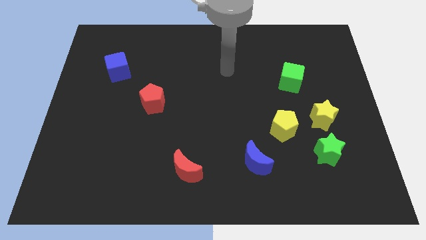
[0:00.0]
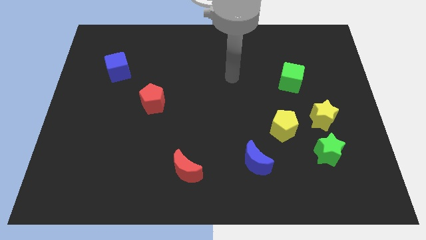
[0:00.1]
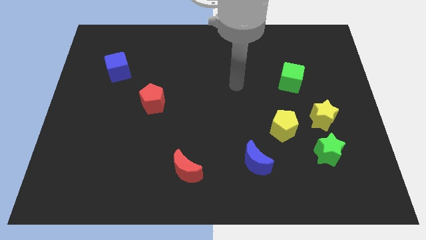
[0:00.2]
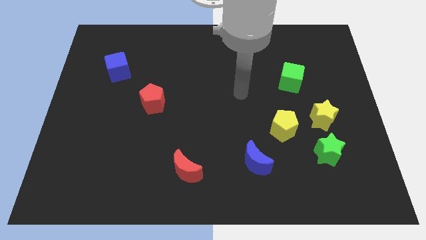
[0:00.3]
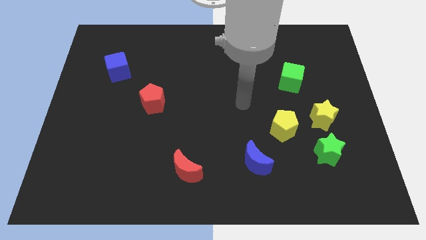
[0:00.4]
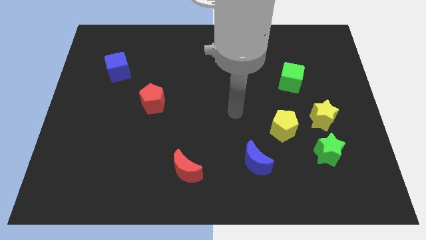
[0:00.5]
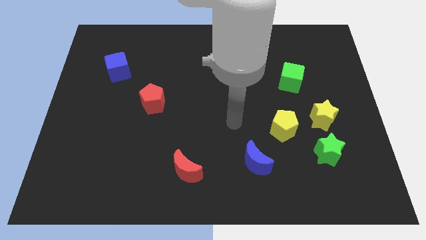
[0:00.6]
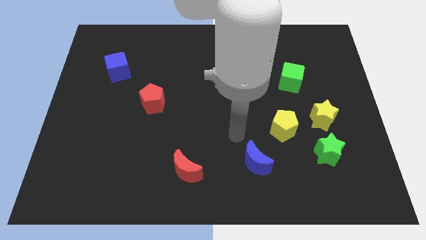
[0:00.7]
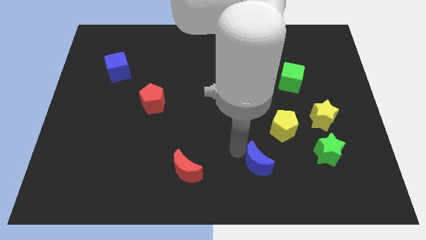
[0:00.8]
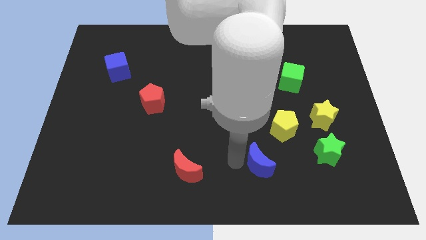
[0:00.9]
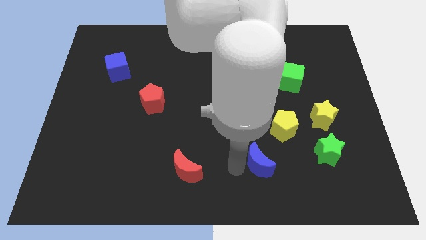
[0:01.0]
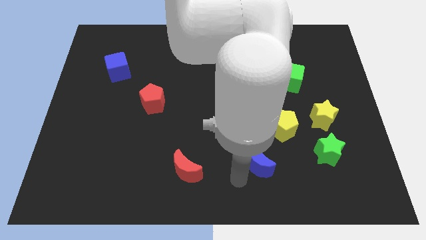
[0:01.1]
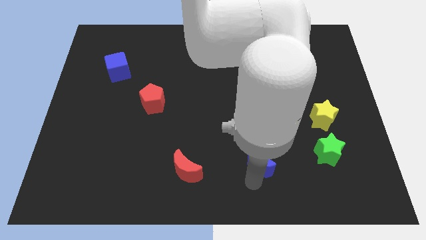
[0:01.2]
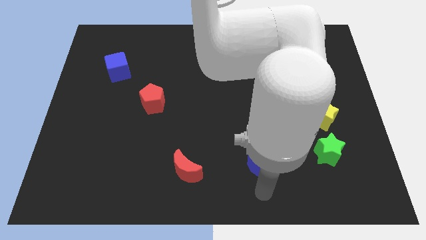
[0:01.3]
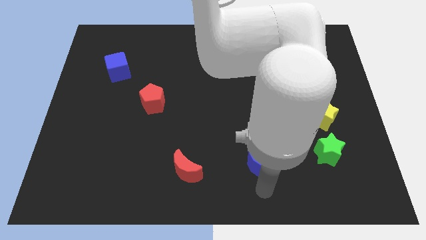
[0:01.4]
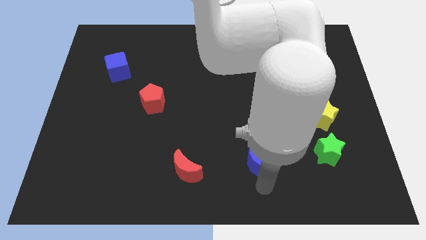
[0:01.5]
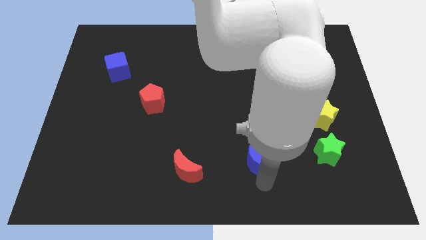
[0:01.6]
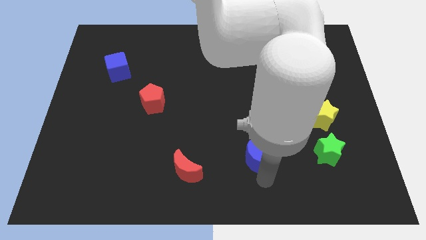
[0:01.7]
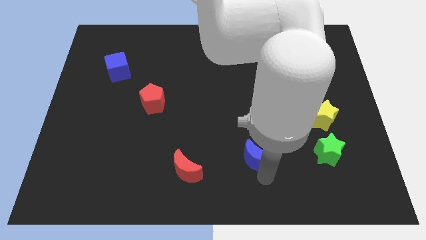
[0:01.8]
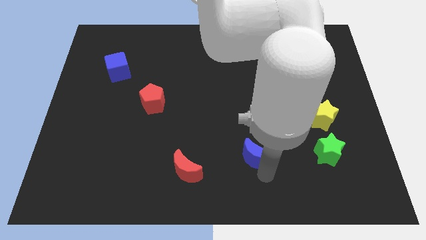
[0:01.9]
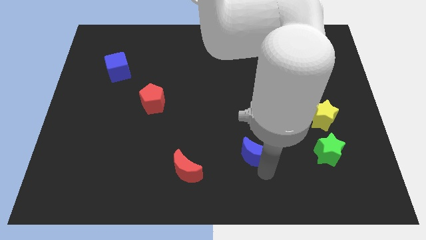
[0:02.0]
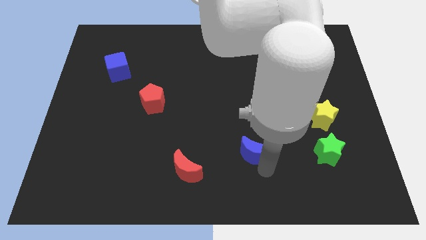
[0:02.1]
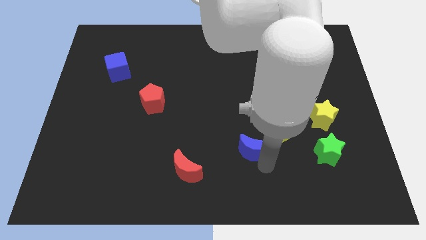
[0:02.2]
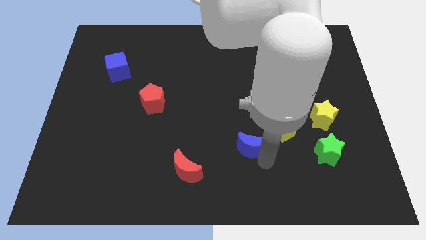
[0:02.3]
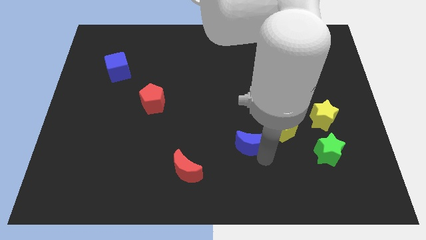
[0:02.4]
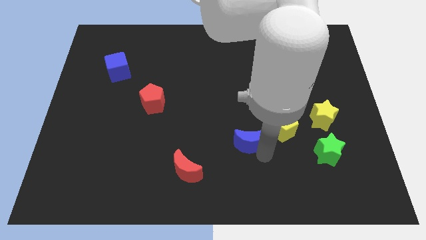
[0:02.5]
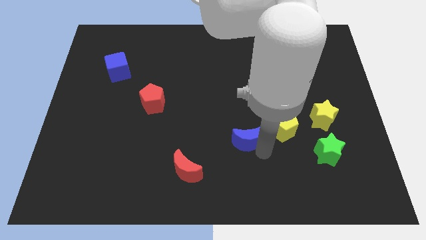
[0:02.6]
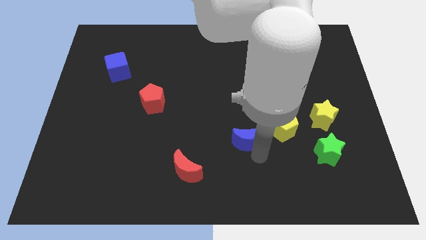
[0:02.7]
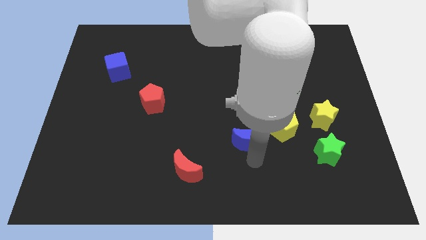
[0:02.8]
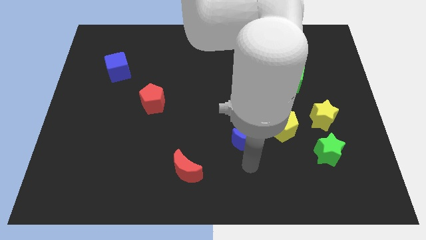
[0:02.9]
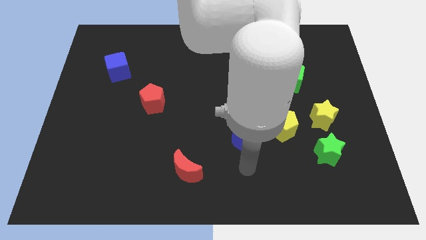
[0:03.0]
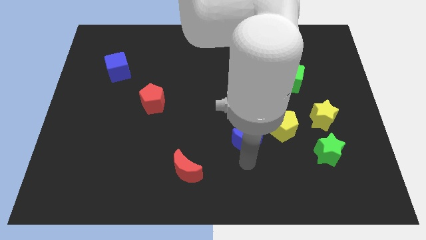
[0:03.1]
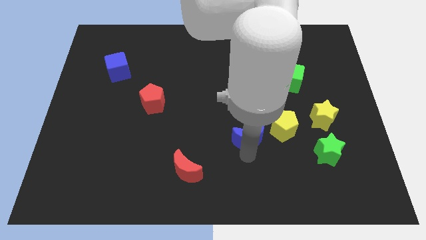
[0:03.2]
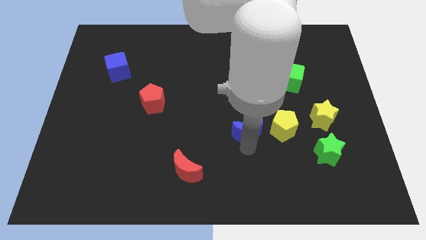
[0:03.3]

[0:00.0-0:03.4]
move the blue moon a bit upwards

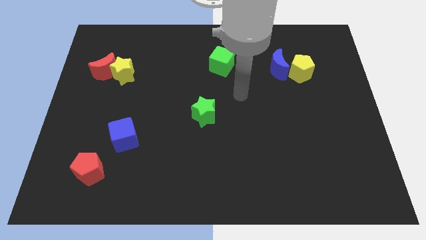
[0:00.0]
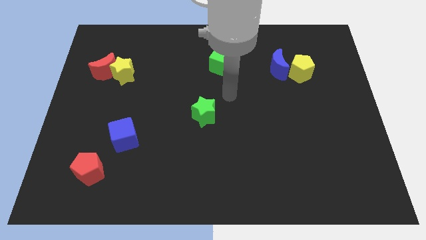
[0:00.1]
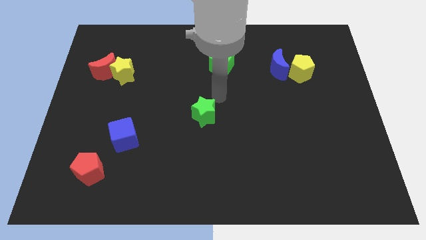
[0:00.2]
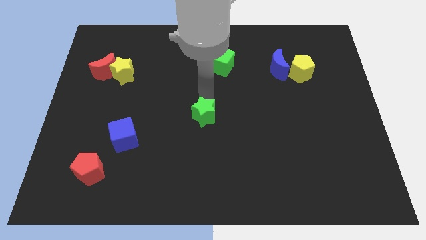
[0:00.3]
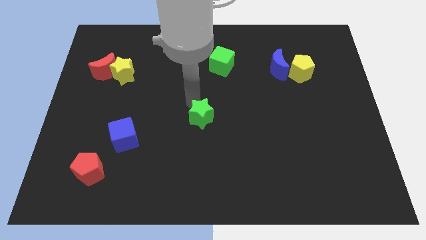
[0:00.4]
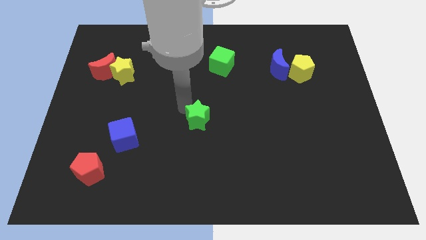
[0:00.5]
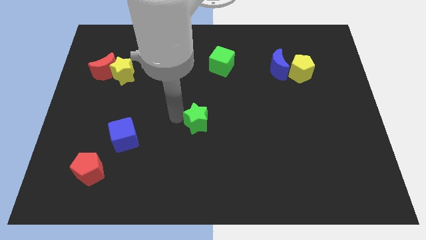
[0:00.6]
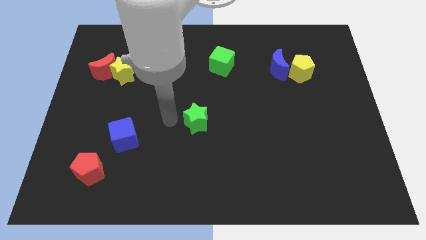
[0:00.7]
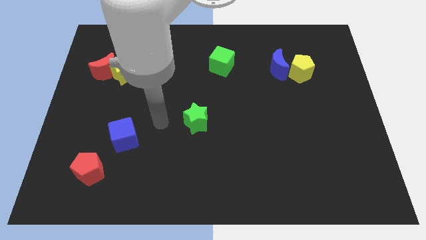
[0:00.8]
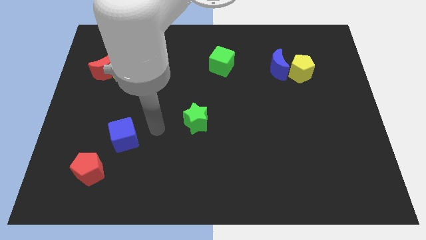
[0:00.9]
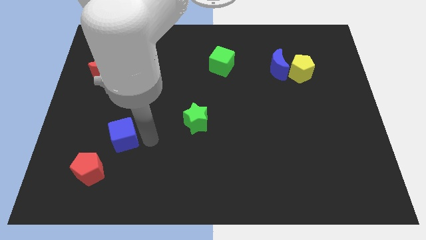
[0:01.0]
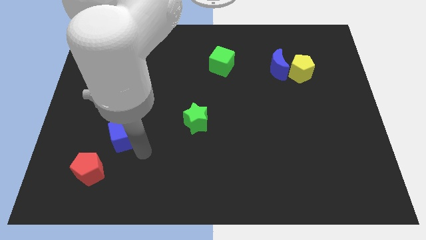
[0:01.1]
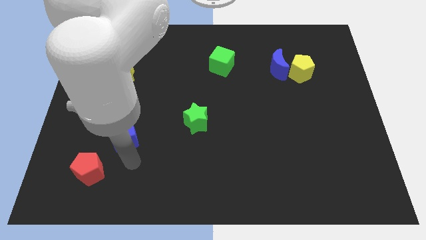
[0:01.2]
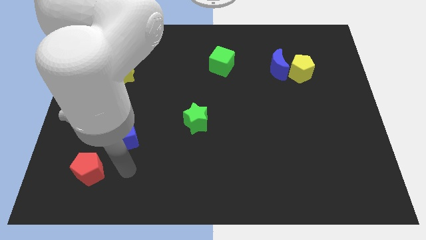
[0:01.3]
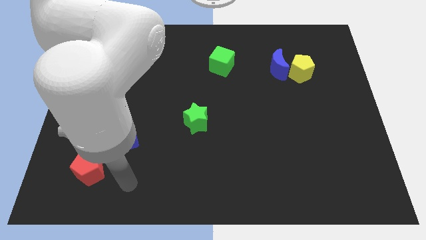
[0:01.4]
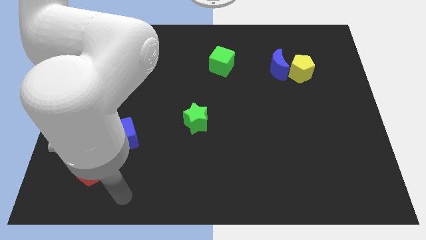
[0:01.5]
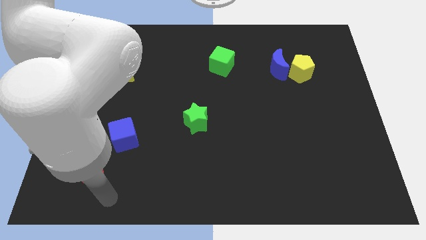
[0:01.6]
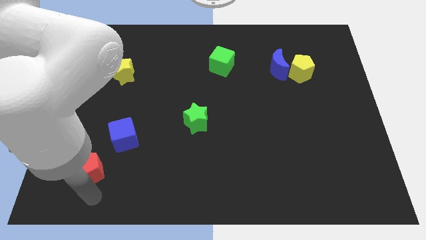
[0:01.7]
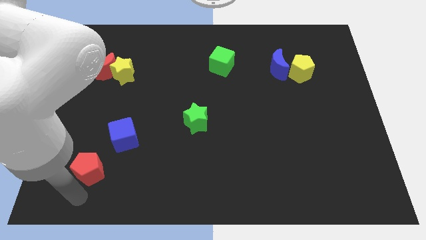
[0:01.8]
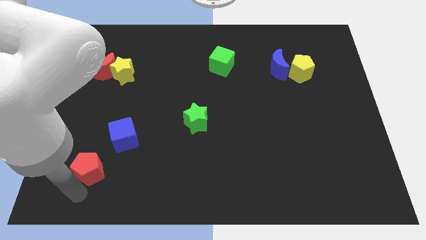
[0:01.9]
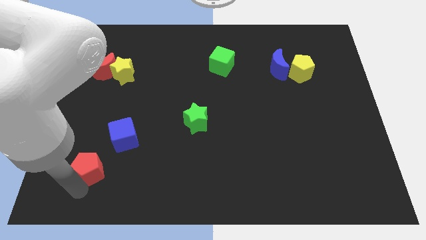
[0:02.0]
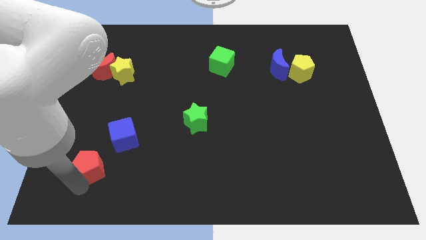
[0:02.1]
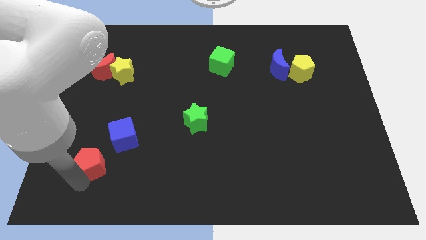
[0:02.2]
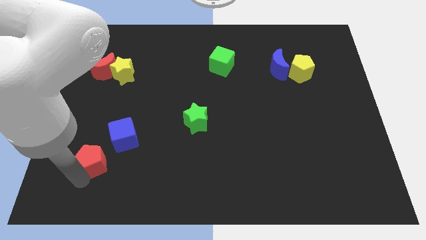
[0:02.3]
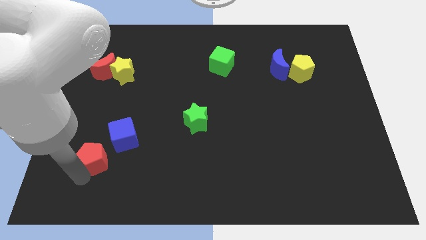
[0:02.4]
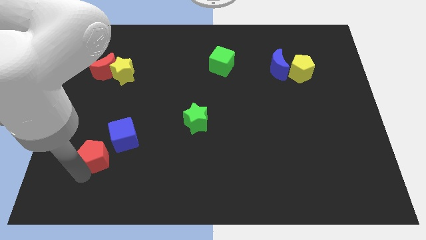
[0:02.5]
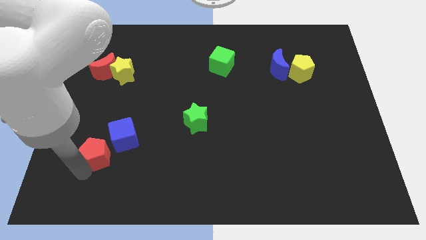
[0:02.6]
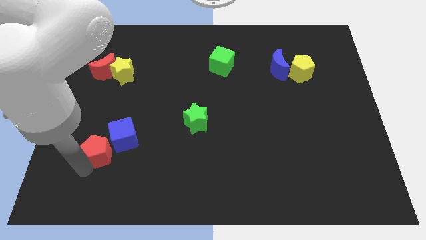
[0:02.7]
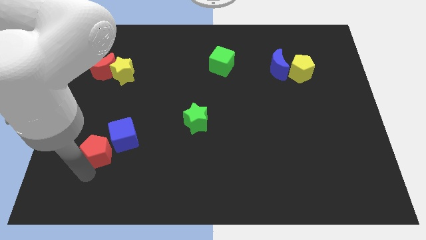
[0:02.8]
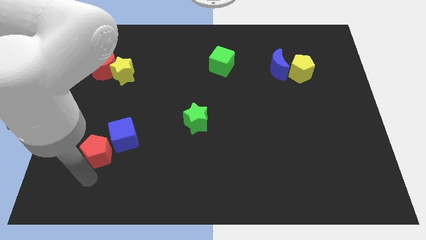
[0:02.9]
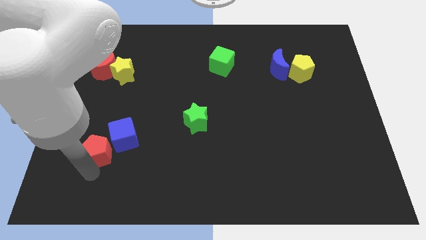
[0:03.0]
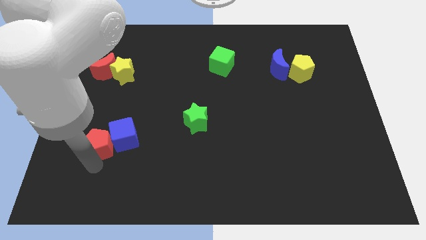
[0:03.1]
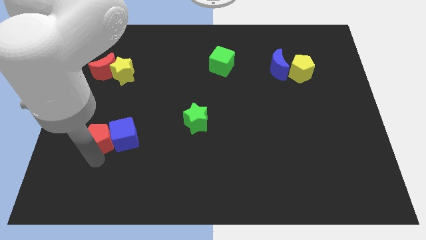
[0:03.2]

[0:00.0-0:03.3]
slide the red pentagon slightly up

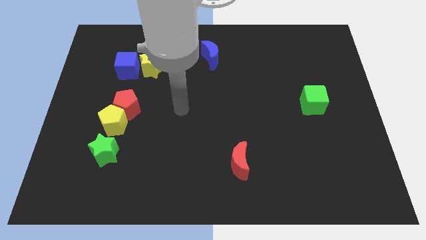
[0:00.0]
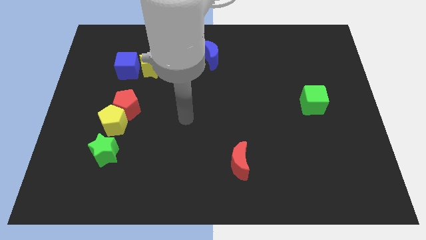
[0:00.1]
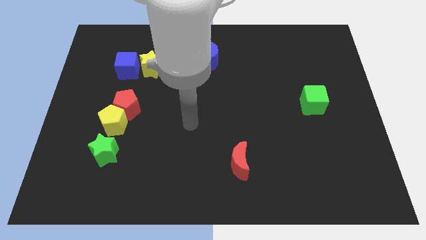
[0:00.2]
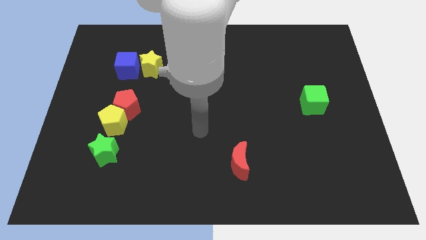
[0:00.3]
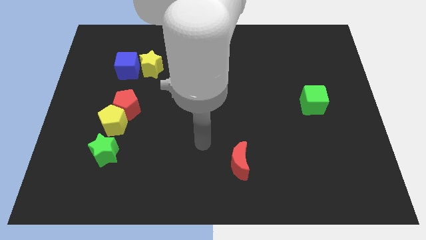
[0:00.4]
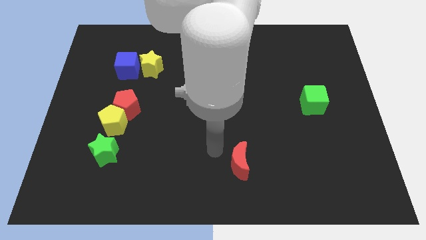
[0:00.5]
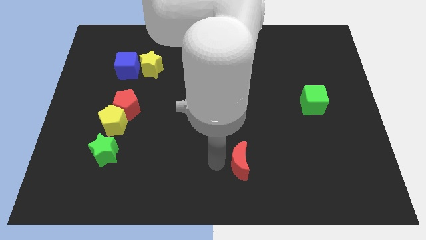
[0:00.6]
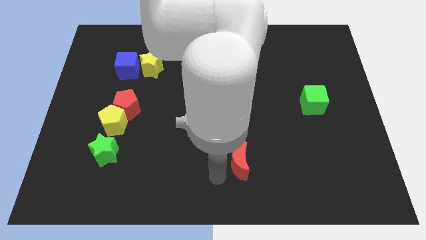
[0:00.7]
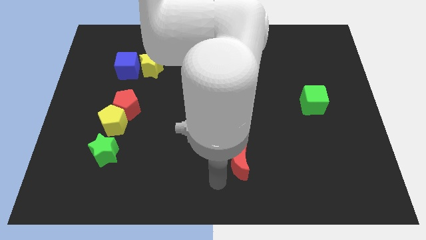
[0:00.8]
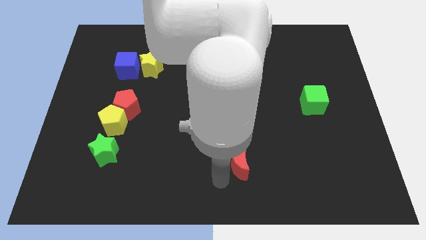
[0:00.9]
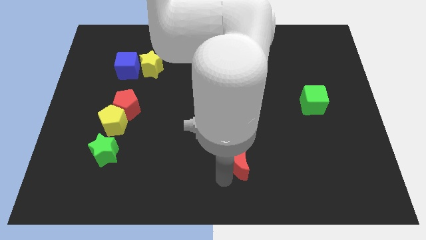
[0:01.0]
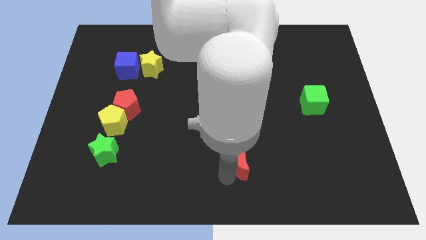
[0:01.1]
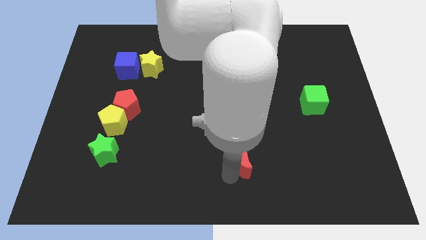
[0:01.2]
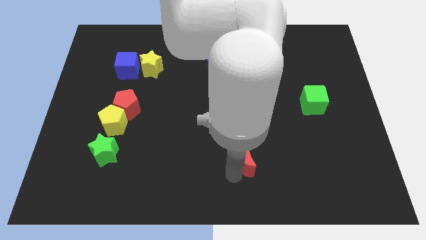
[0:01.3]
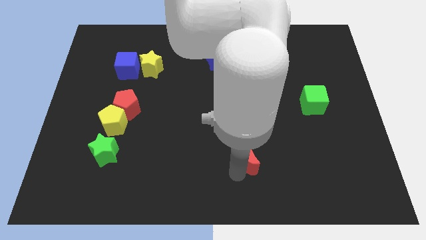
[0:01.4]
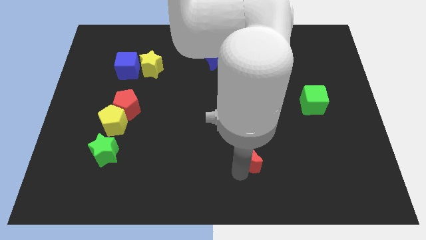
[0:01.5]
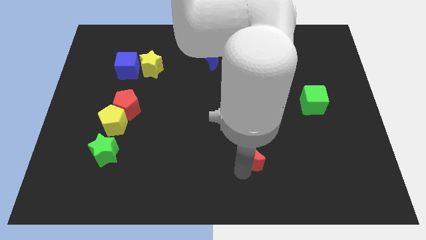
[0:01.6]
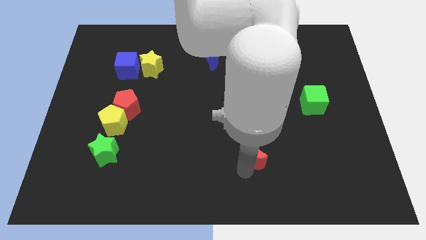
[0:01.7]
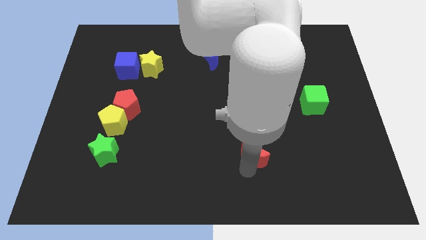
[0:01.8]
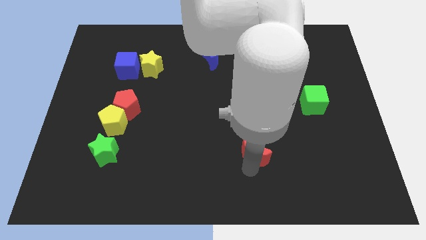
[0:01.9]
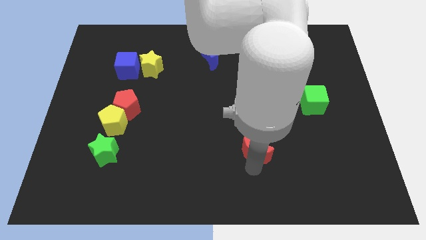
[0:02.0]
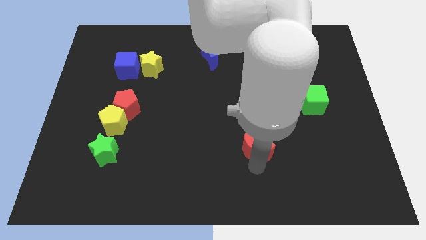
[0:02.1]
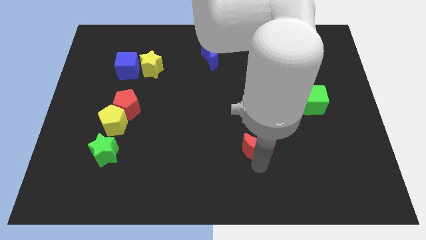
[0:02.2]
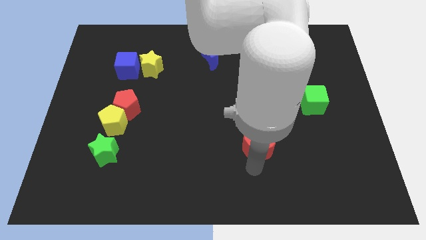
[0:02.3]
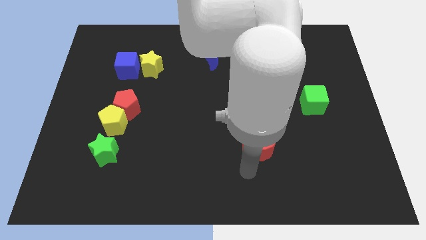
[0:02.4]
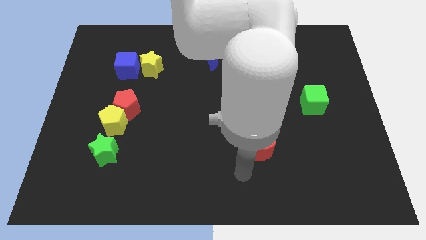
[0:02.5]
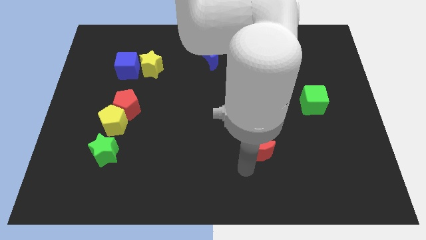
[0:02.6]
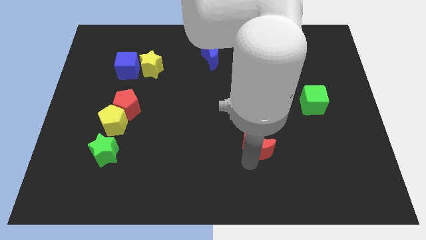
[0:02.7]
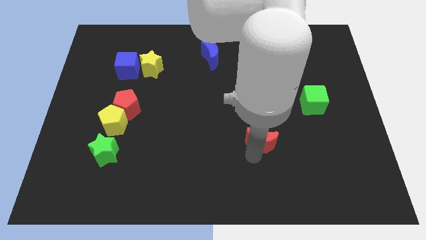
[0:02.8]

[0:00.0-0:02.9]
slightly push the red moon up and right
